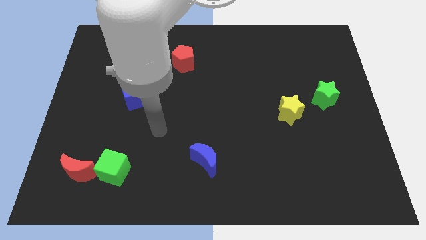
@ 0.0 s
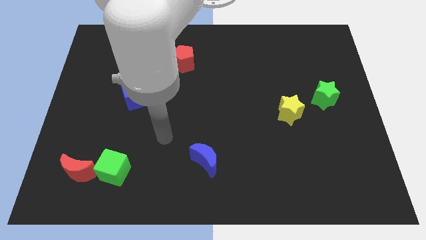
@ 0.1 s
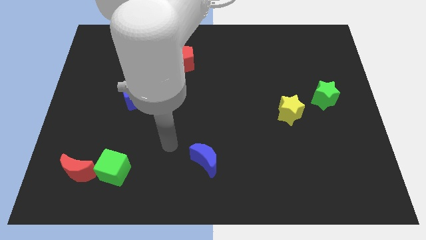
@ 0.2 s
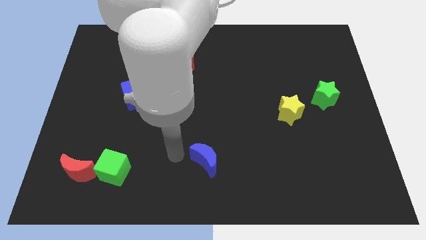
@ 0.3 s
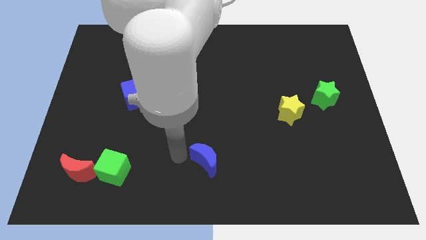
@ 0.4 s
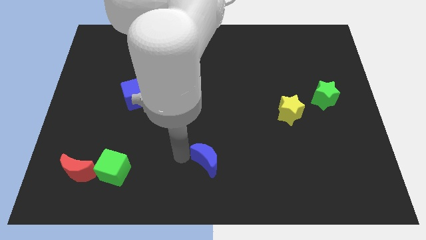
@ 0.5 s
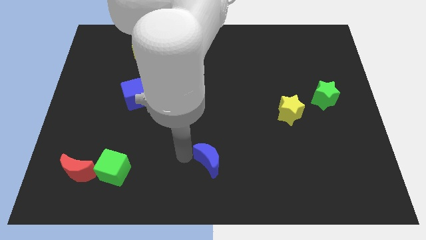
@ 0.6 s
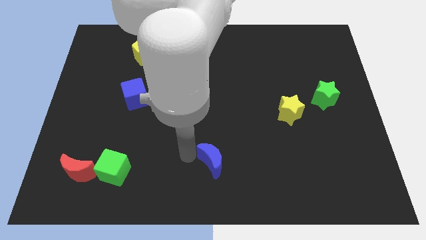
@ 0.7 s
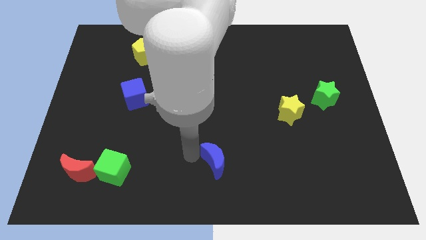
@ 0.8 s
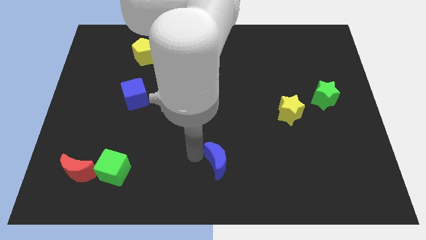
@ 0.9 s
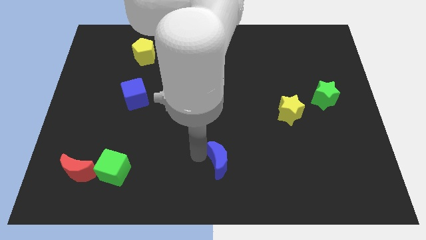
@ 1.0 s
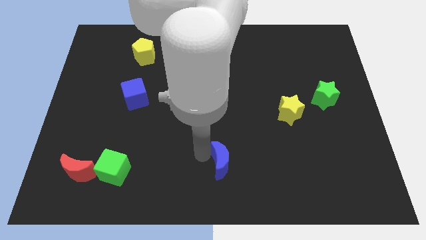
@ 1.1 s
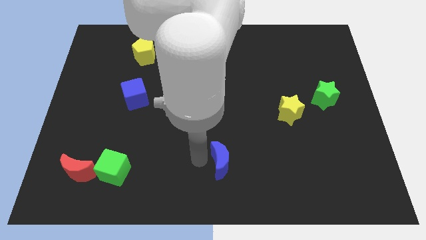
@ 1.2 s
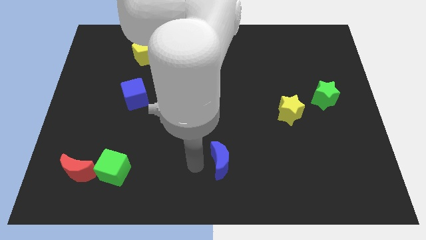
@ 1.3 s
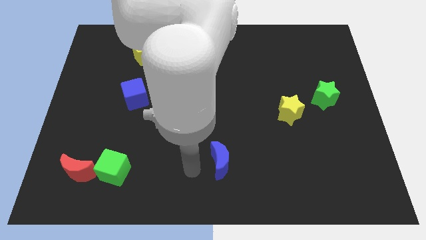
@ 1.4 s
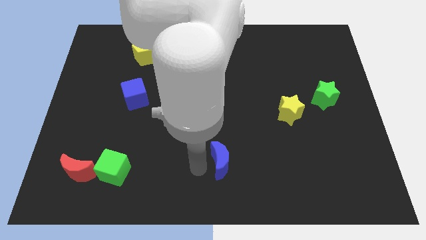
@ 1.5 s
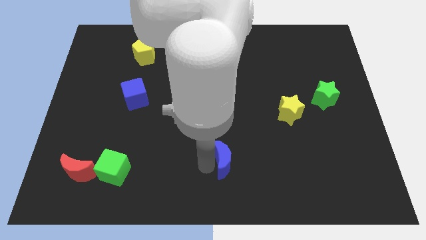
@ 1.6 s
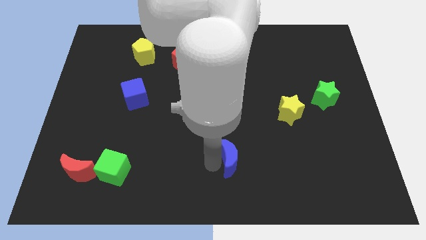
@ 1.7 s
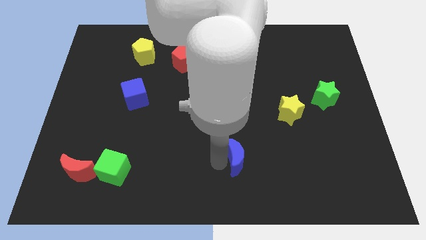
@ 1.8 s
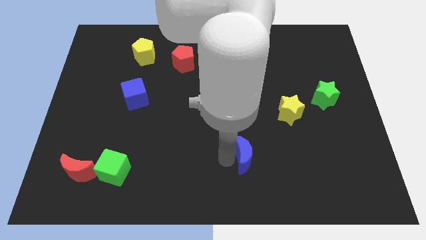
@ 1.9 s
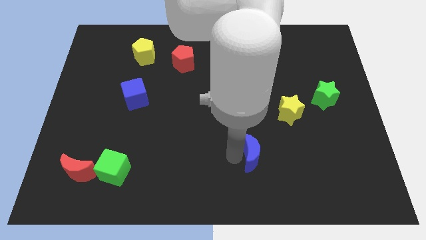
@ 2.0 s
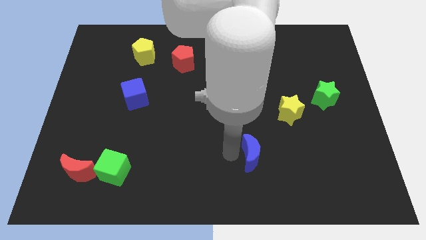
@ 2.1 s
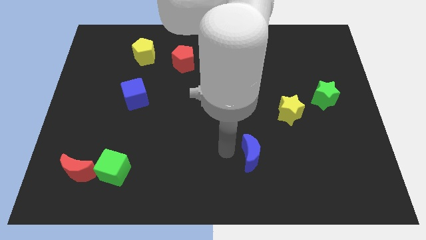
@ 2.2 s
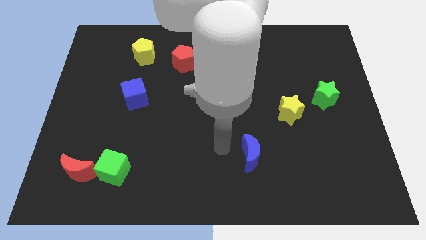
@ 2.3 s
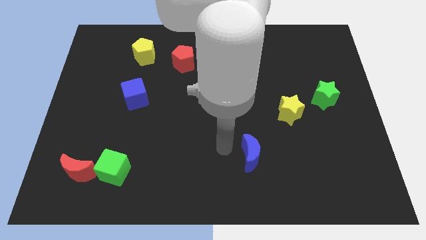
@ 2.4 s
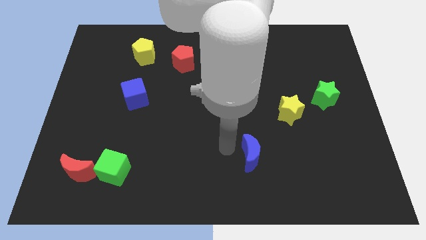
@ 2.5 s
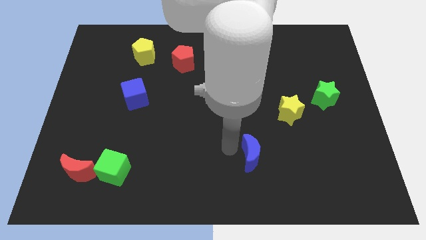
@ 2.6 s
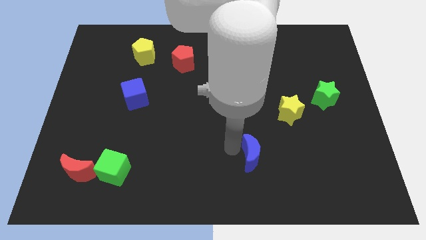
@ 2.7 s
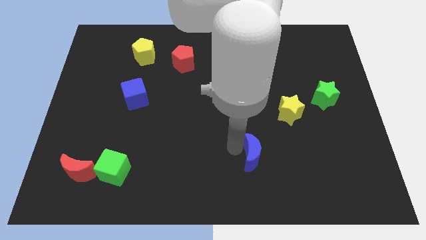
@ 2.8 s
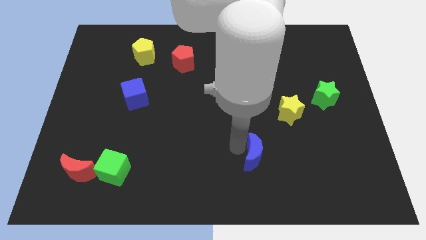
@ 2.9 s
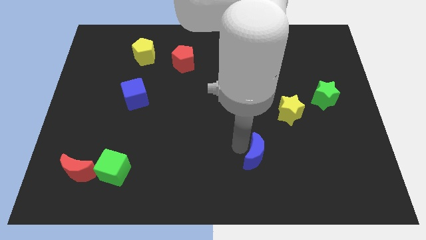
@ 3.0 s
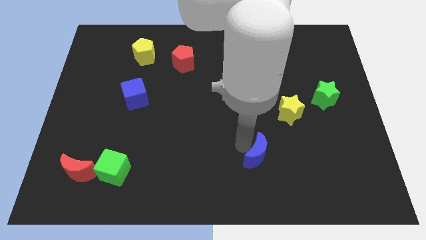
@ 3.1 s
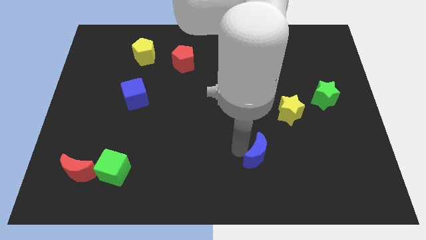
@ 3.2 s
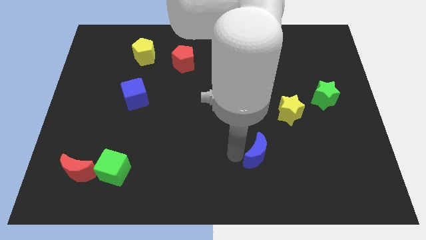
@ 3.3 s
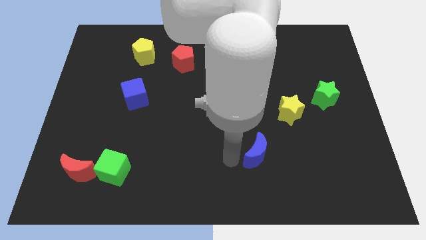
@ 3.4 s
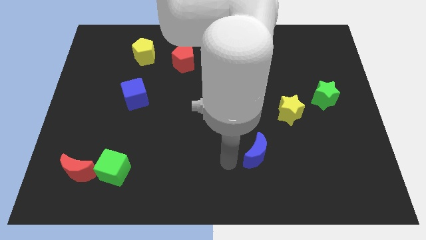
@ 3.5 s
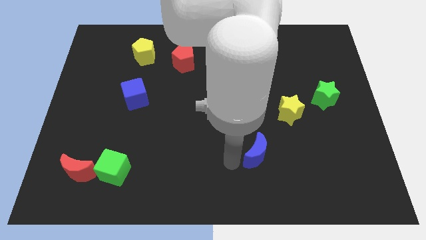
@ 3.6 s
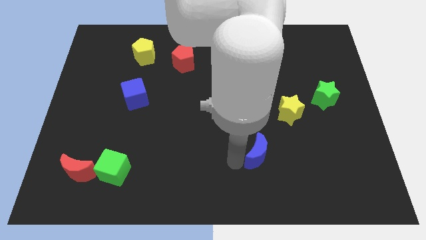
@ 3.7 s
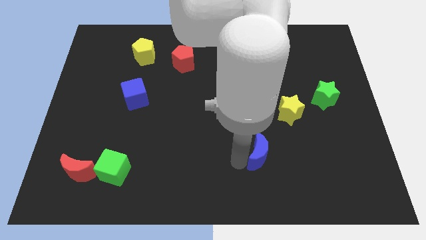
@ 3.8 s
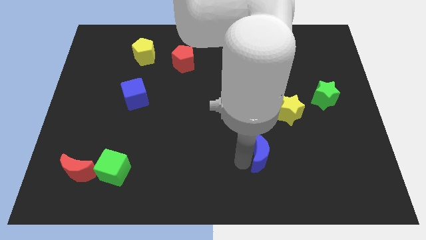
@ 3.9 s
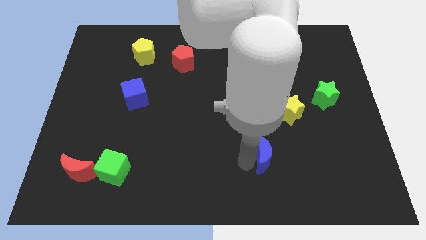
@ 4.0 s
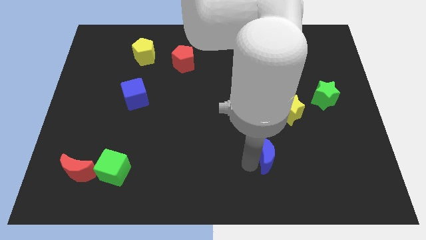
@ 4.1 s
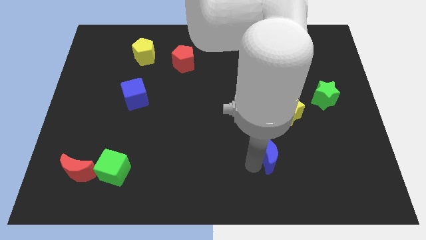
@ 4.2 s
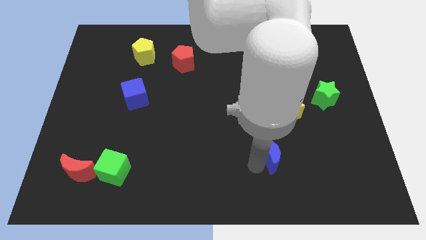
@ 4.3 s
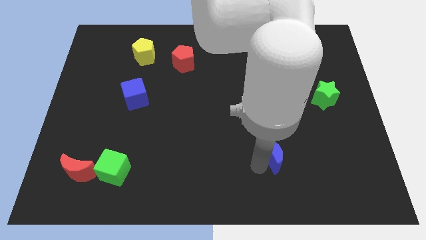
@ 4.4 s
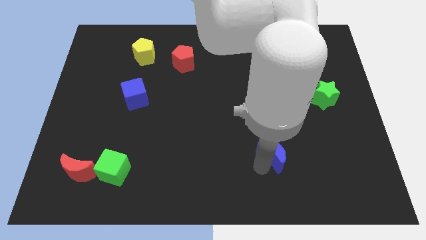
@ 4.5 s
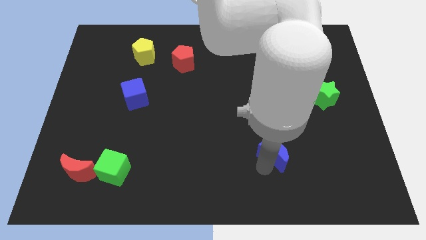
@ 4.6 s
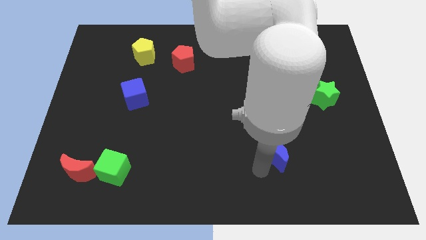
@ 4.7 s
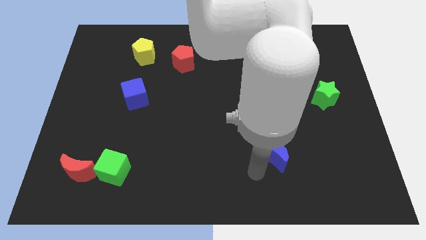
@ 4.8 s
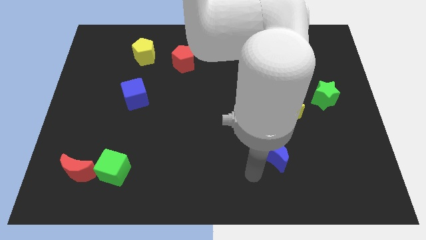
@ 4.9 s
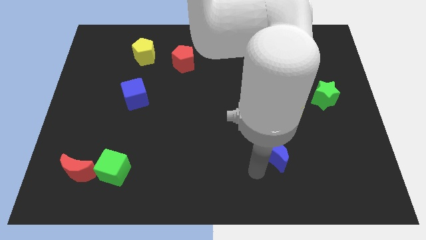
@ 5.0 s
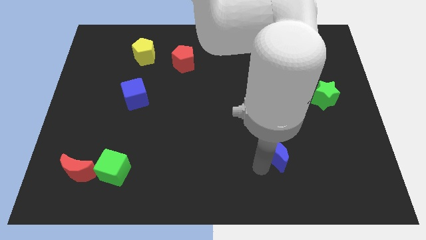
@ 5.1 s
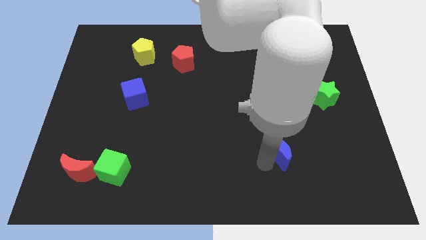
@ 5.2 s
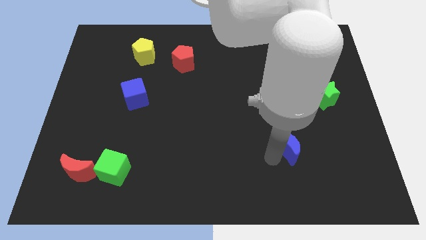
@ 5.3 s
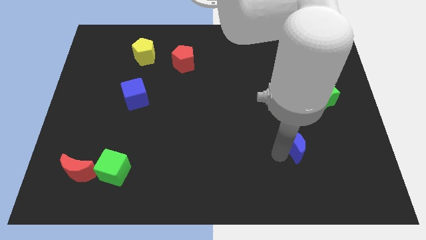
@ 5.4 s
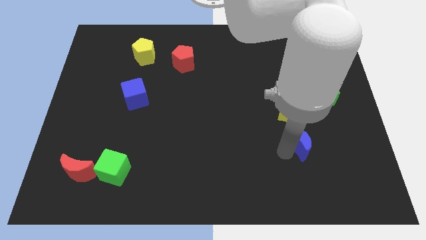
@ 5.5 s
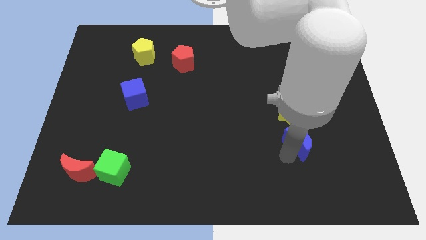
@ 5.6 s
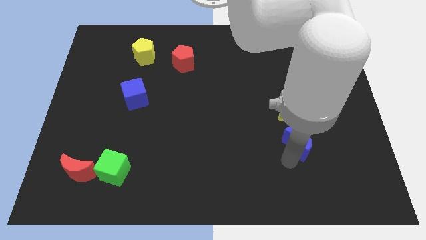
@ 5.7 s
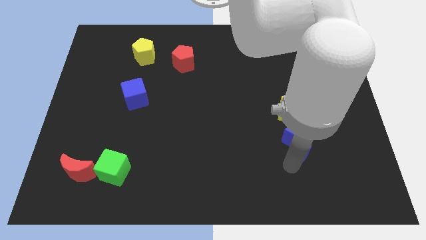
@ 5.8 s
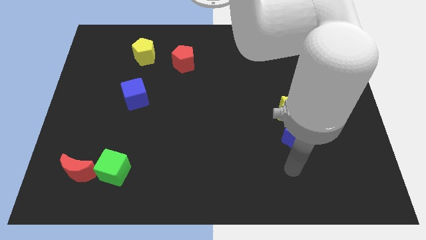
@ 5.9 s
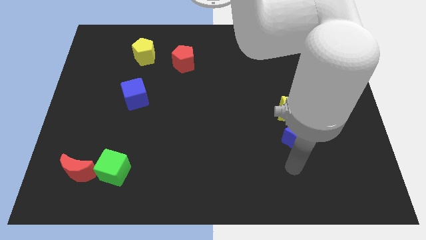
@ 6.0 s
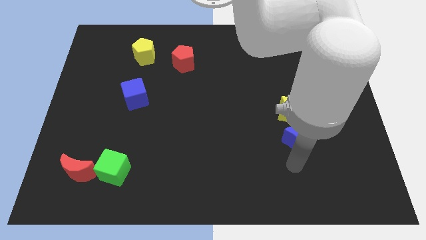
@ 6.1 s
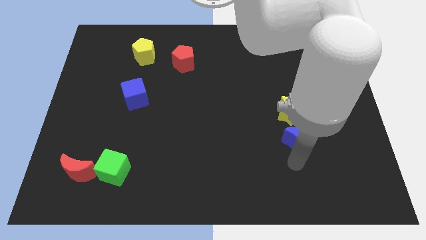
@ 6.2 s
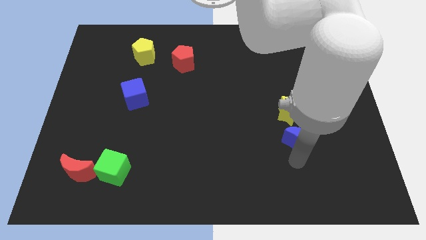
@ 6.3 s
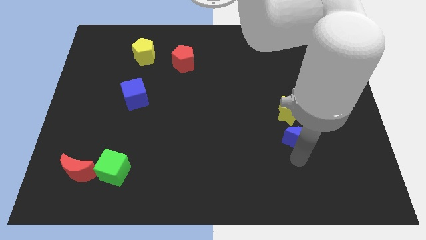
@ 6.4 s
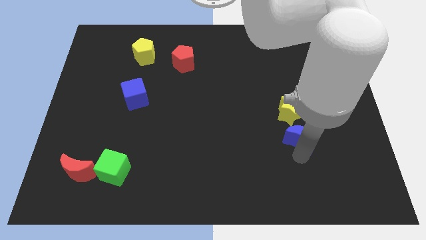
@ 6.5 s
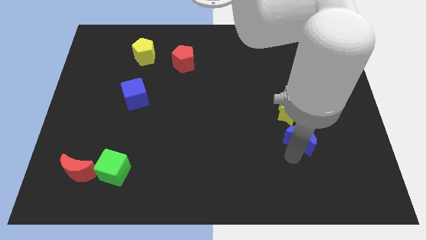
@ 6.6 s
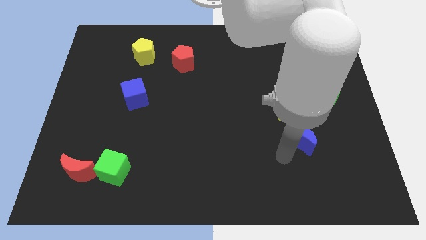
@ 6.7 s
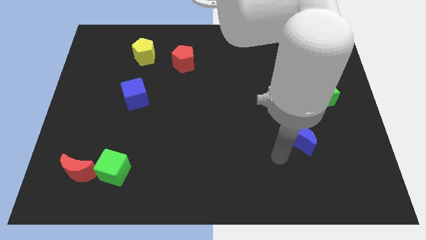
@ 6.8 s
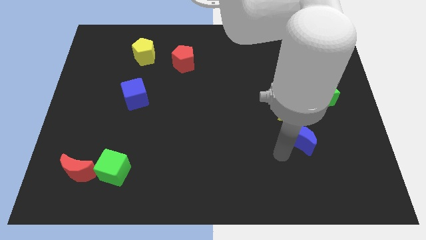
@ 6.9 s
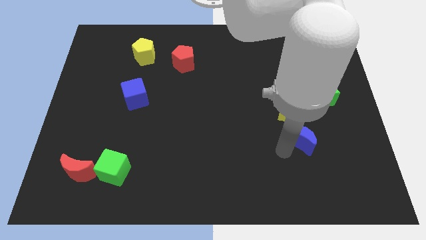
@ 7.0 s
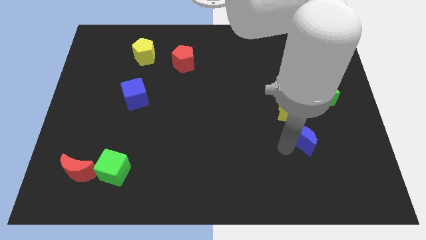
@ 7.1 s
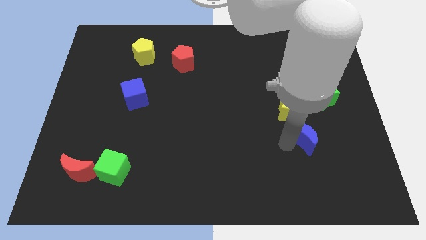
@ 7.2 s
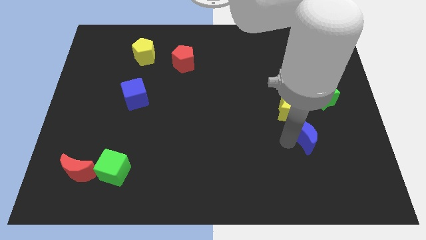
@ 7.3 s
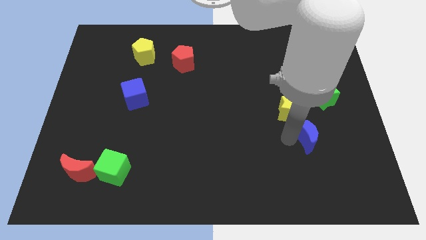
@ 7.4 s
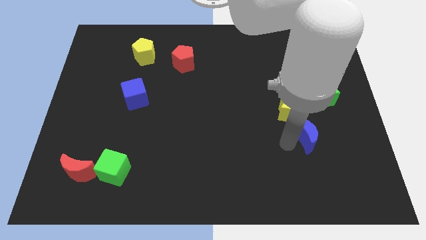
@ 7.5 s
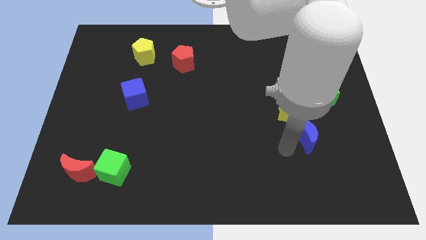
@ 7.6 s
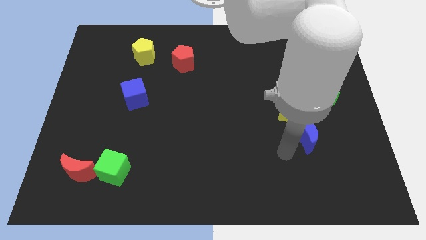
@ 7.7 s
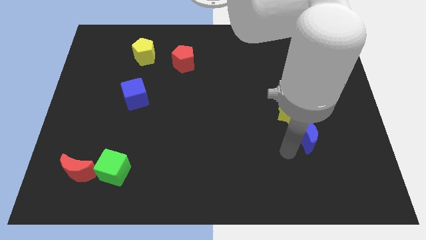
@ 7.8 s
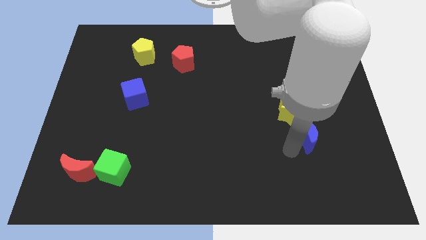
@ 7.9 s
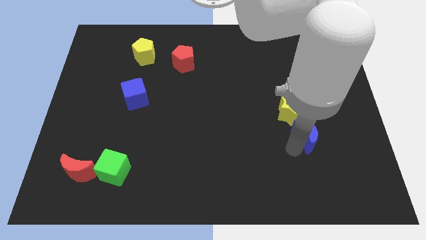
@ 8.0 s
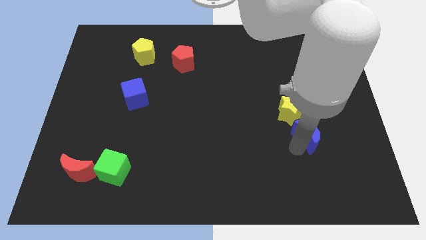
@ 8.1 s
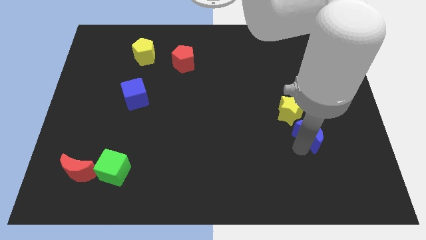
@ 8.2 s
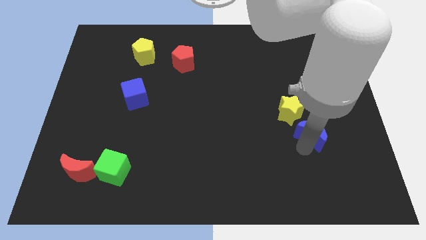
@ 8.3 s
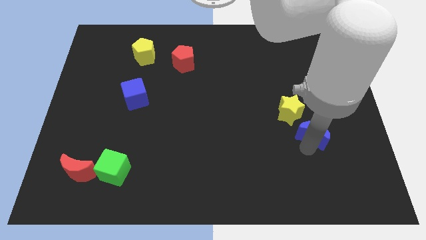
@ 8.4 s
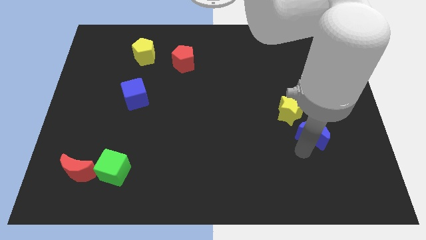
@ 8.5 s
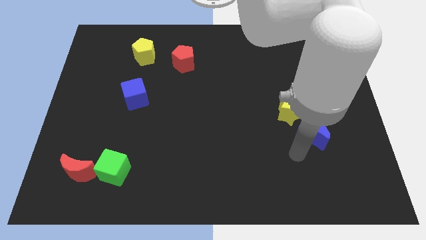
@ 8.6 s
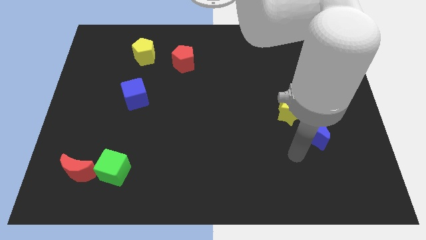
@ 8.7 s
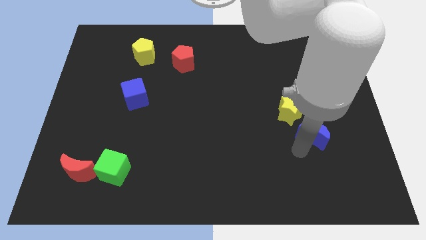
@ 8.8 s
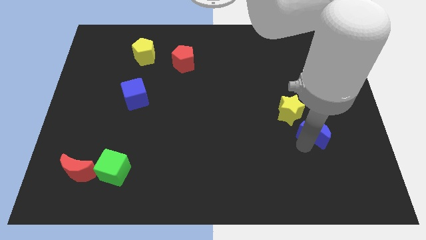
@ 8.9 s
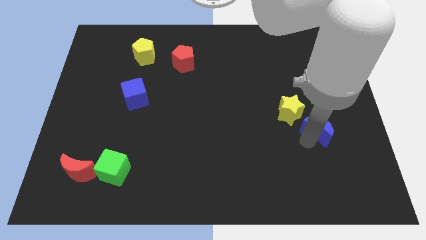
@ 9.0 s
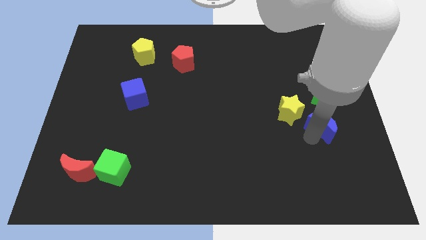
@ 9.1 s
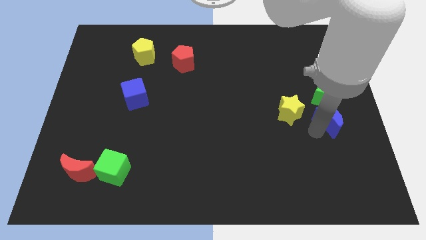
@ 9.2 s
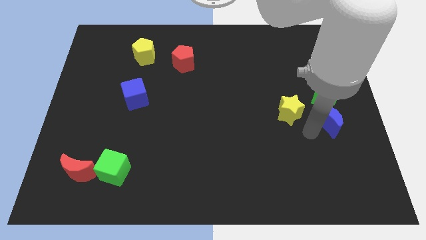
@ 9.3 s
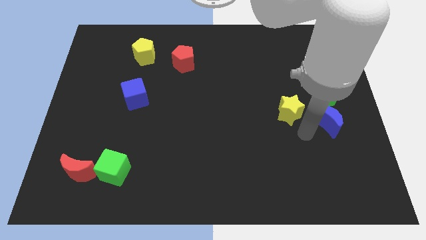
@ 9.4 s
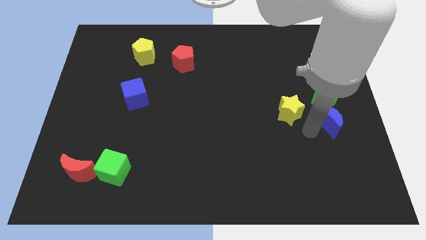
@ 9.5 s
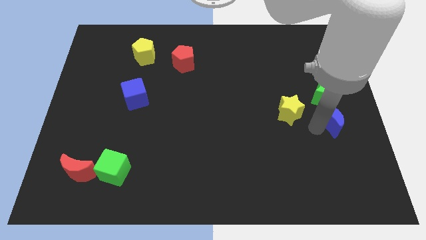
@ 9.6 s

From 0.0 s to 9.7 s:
slide the blue moon to the right side of the board
